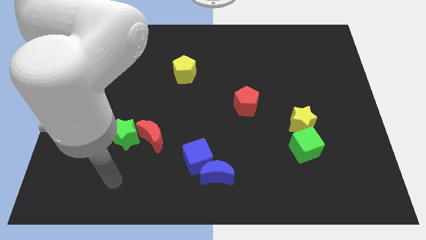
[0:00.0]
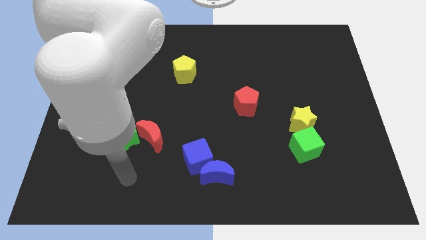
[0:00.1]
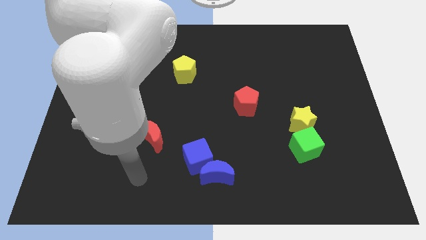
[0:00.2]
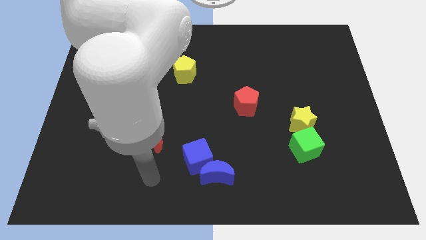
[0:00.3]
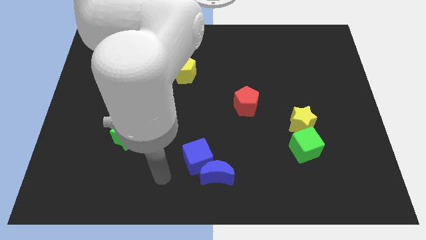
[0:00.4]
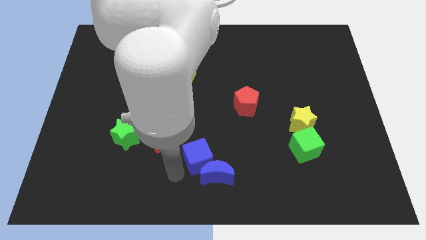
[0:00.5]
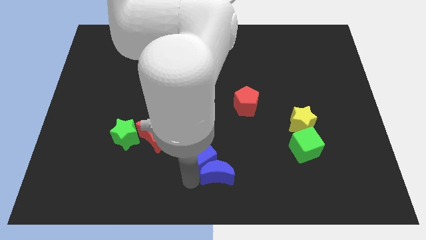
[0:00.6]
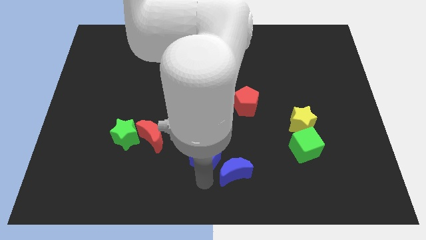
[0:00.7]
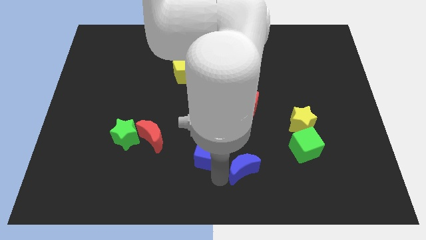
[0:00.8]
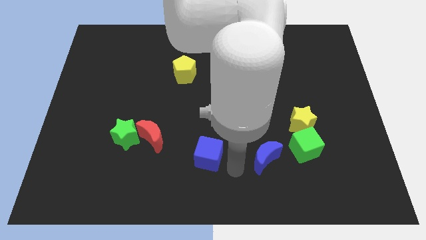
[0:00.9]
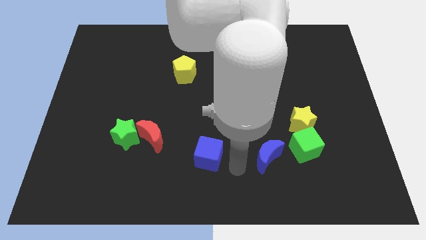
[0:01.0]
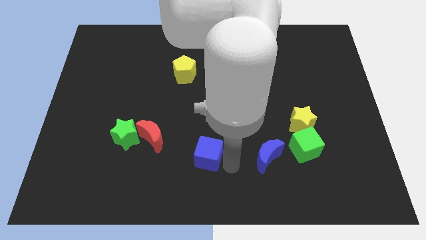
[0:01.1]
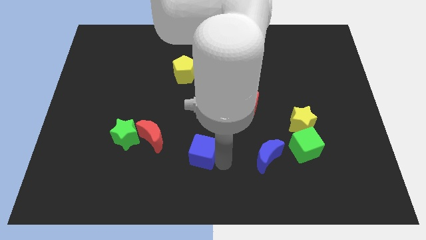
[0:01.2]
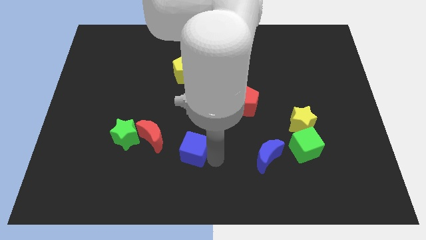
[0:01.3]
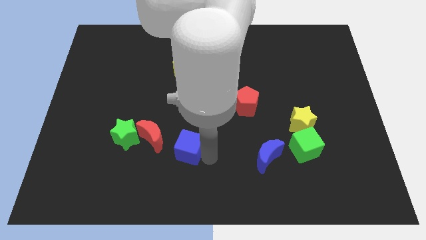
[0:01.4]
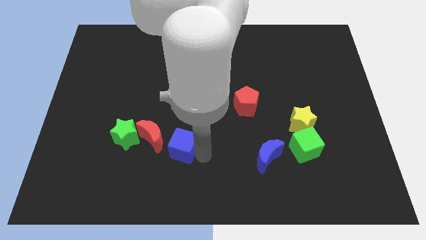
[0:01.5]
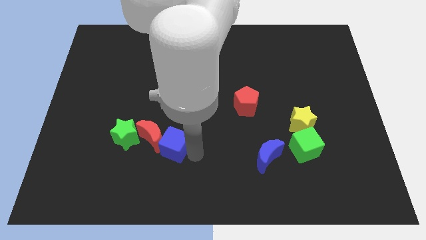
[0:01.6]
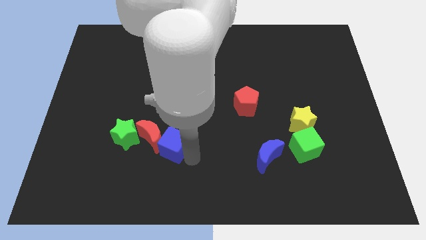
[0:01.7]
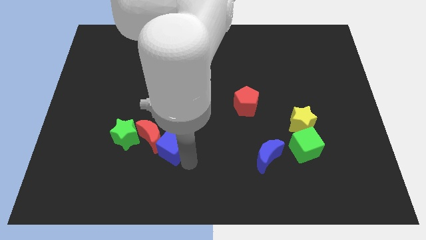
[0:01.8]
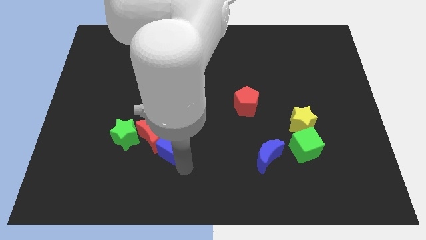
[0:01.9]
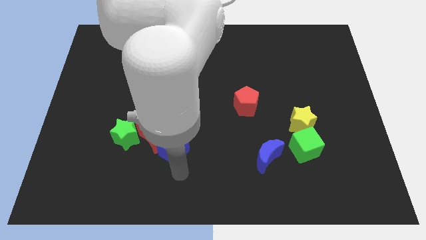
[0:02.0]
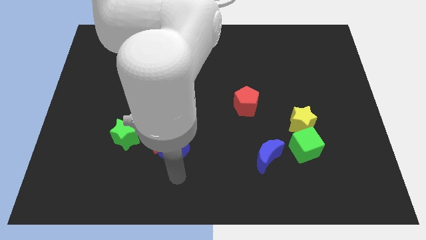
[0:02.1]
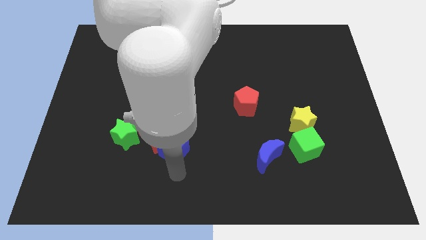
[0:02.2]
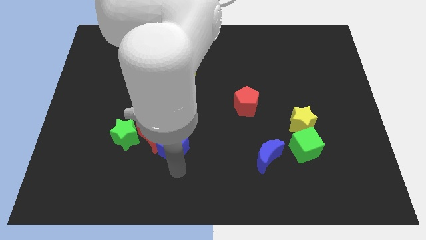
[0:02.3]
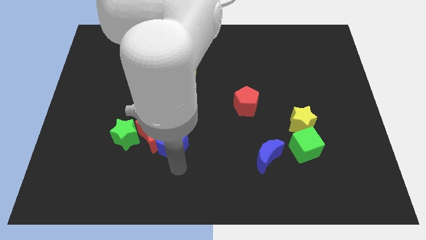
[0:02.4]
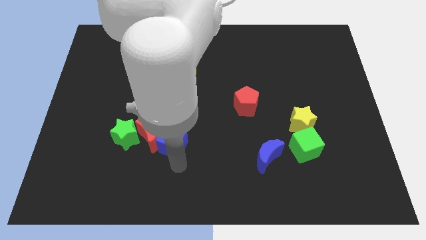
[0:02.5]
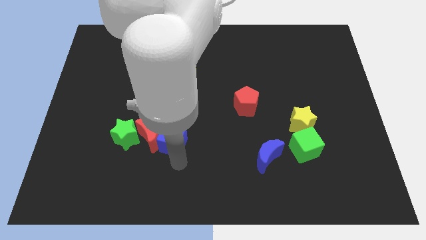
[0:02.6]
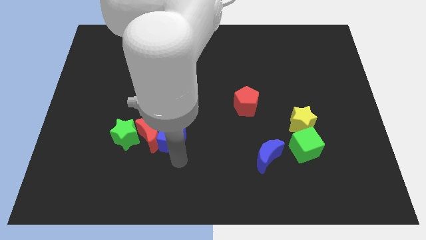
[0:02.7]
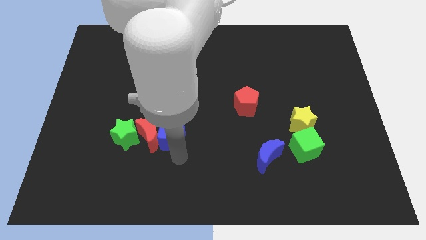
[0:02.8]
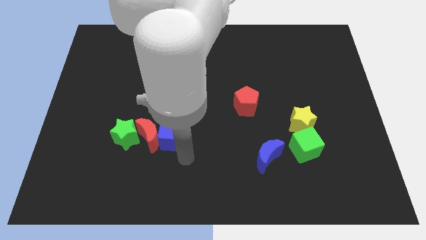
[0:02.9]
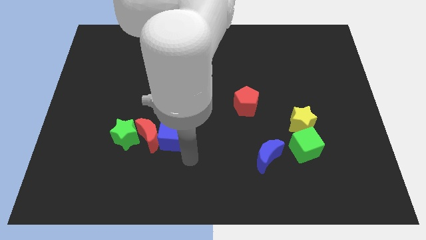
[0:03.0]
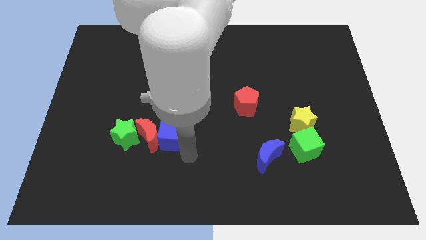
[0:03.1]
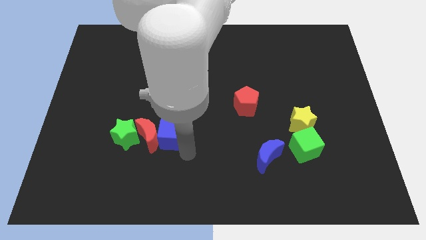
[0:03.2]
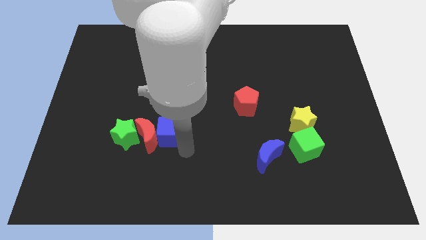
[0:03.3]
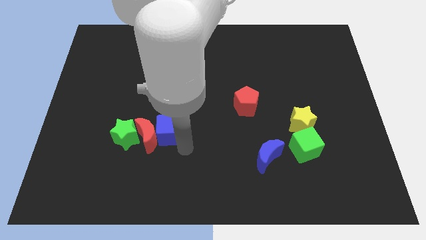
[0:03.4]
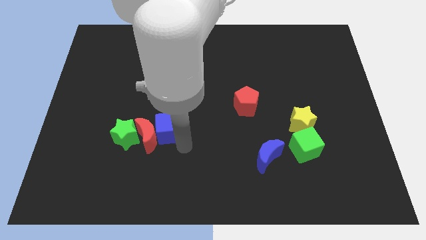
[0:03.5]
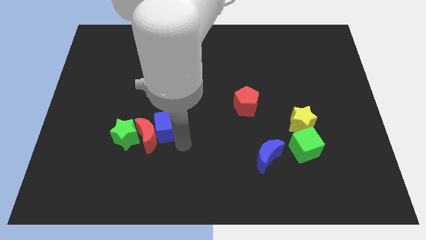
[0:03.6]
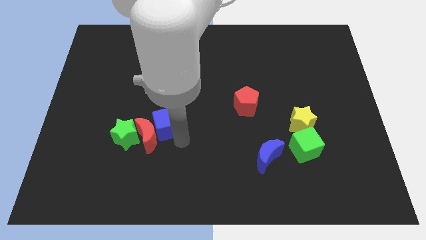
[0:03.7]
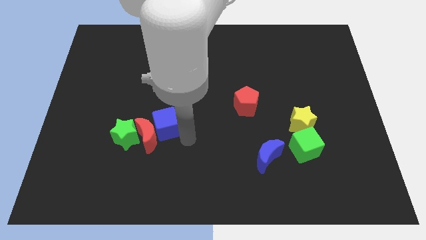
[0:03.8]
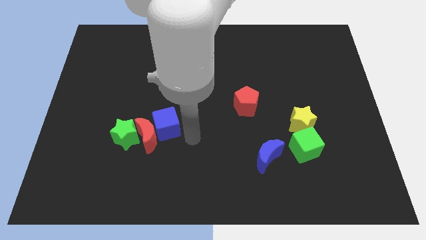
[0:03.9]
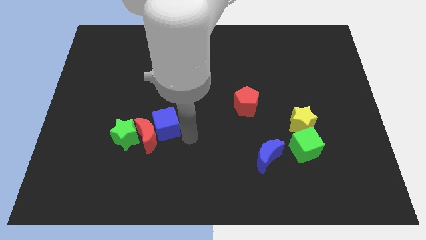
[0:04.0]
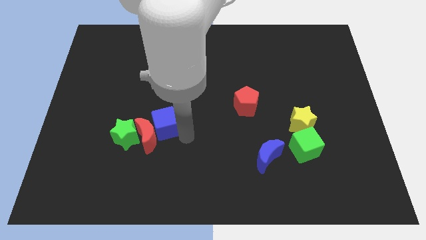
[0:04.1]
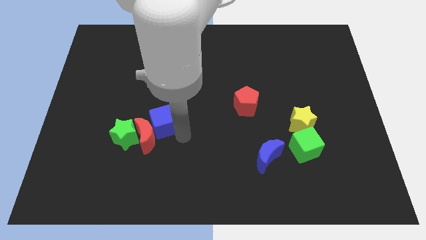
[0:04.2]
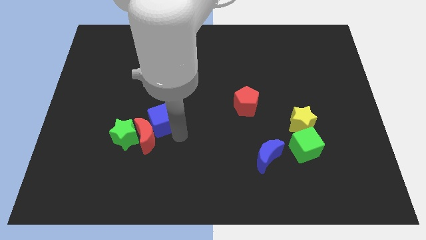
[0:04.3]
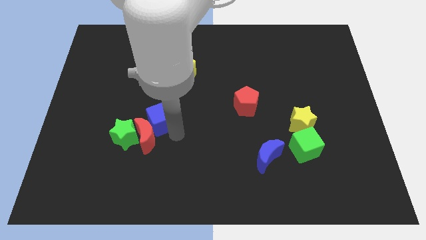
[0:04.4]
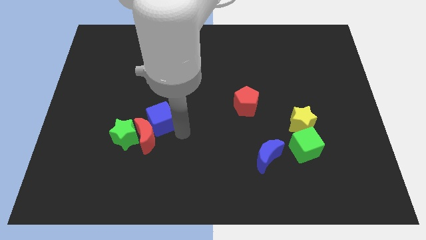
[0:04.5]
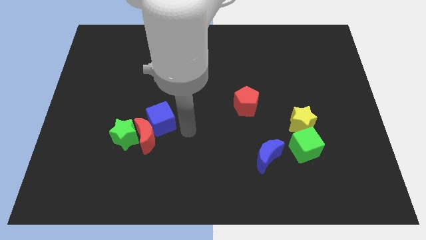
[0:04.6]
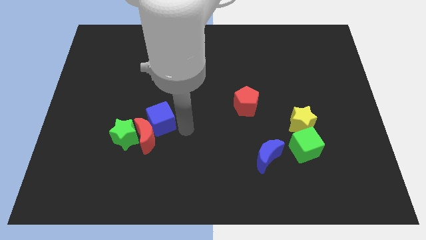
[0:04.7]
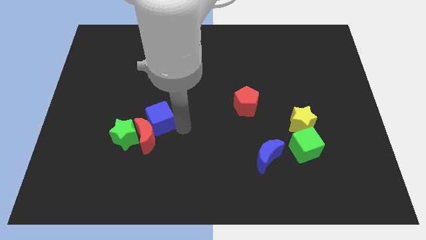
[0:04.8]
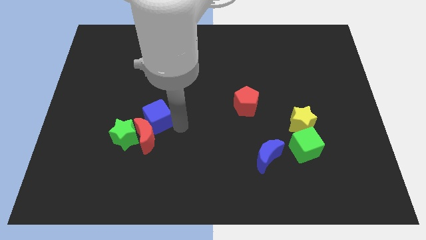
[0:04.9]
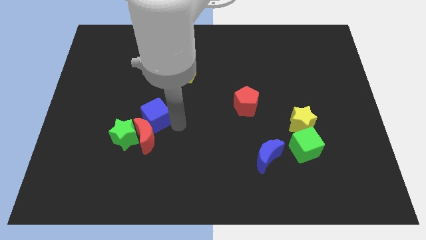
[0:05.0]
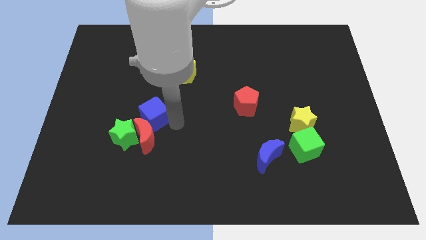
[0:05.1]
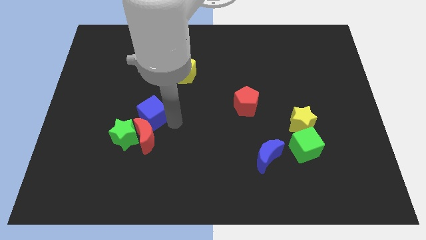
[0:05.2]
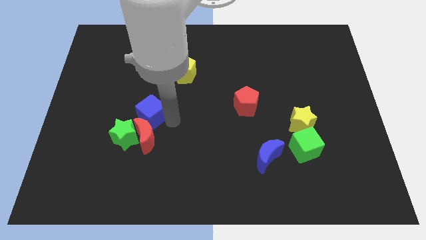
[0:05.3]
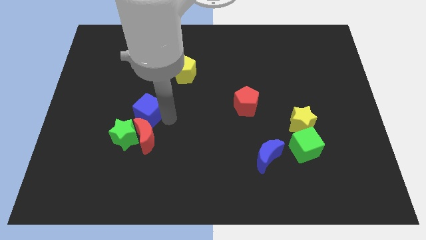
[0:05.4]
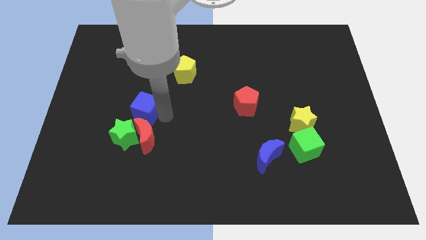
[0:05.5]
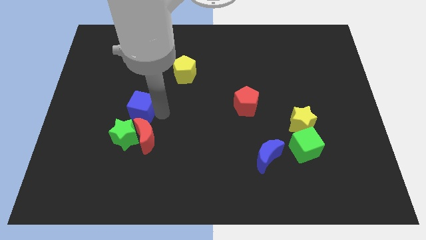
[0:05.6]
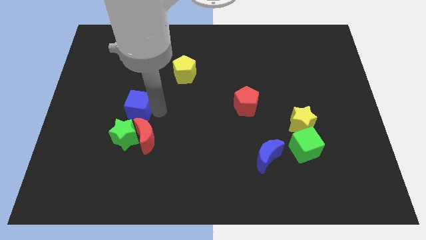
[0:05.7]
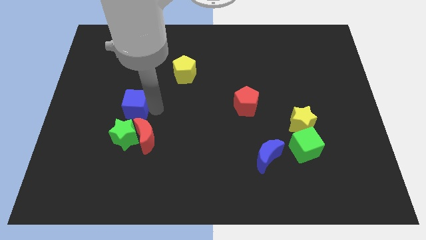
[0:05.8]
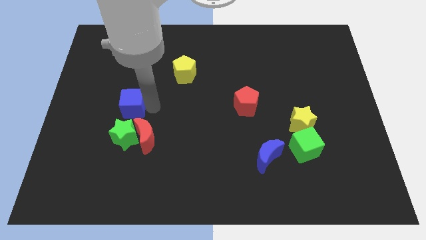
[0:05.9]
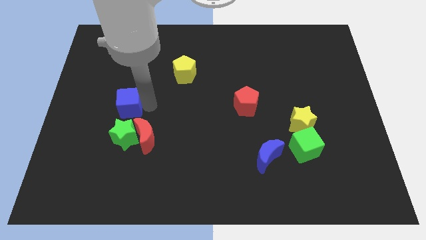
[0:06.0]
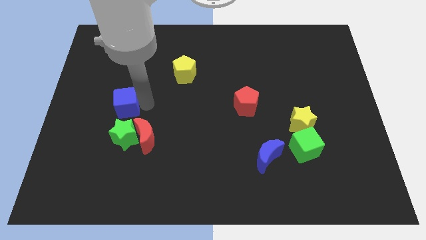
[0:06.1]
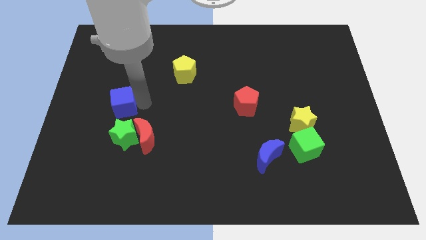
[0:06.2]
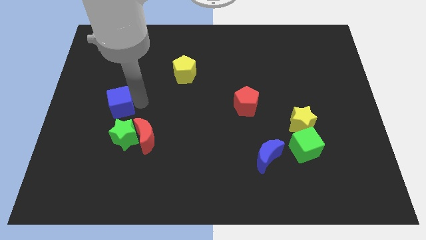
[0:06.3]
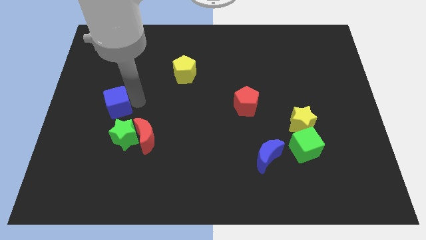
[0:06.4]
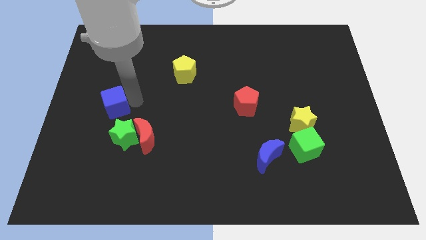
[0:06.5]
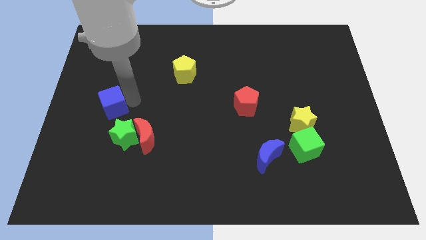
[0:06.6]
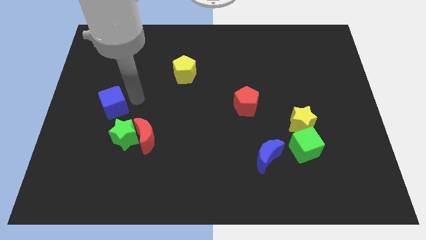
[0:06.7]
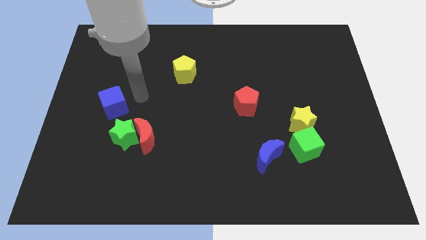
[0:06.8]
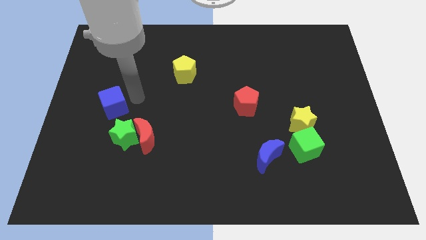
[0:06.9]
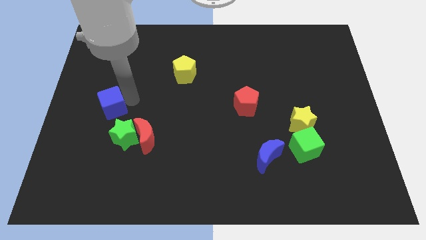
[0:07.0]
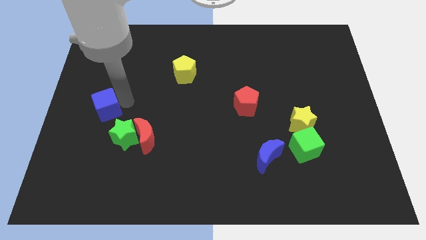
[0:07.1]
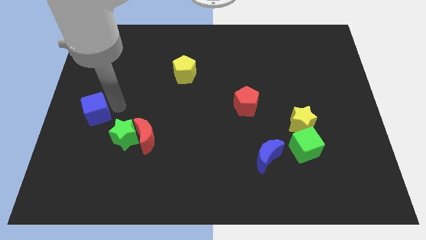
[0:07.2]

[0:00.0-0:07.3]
slide the blue cube to the left side

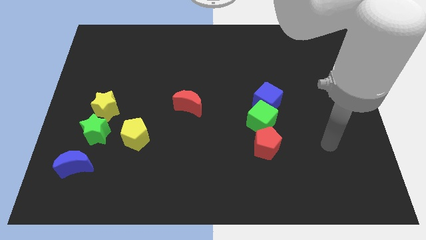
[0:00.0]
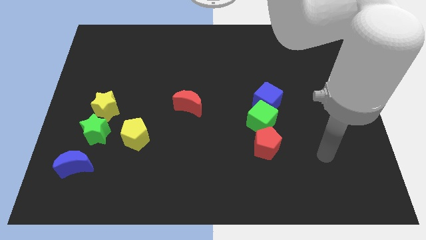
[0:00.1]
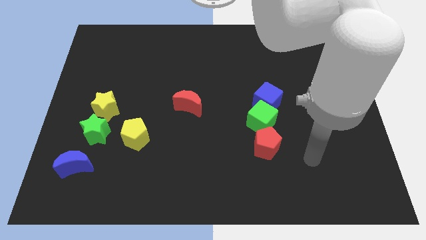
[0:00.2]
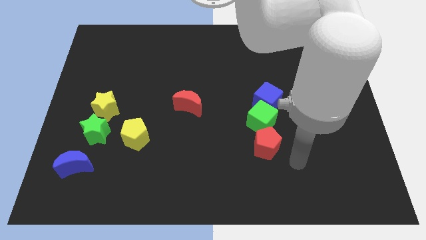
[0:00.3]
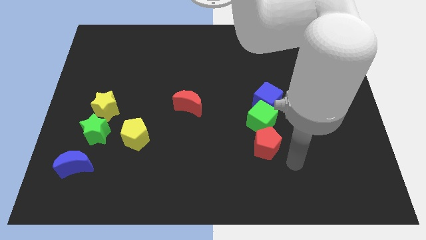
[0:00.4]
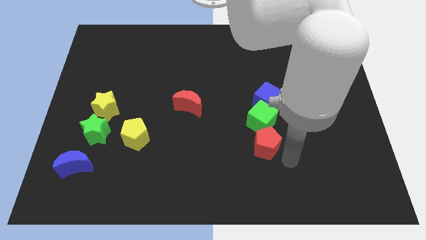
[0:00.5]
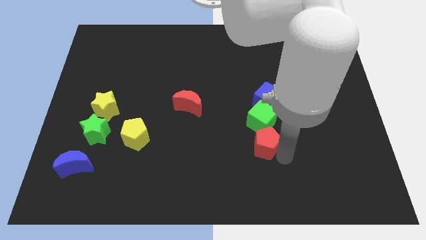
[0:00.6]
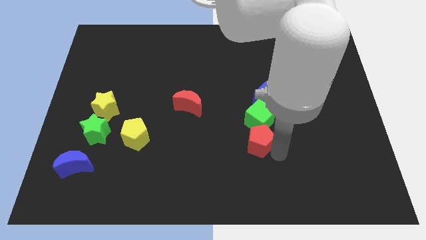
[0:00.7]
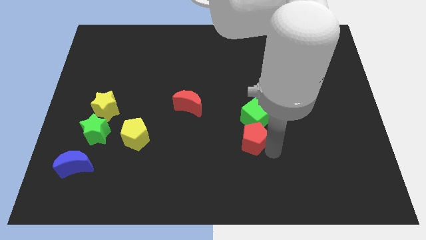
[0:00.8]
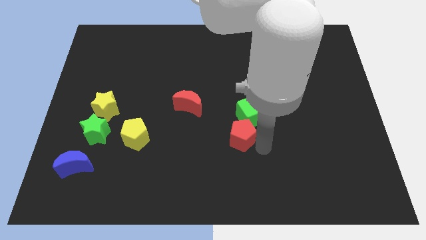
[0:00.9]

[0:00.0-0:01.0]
move the red pentagon to the center of the board
